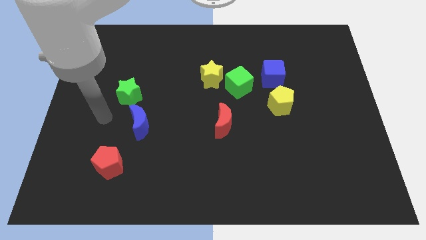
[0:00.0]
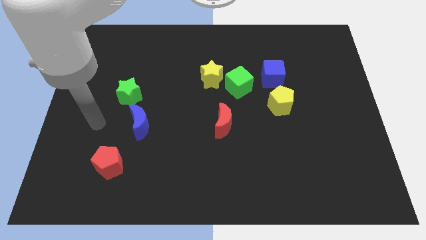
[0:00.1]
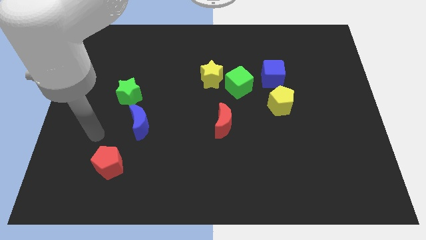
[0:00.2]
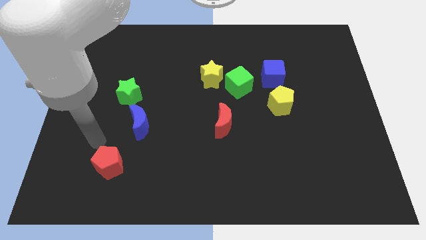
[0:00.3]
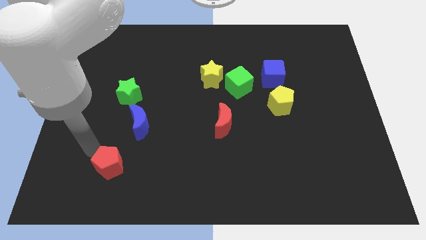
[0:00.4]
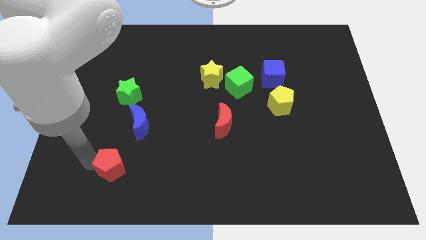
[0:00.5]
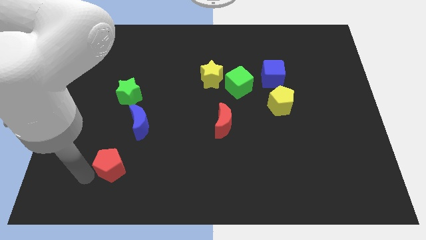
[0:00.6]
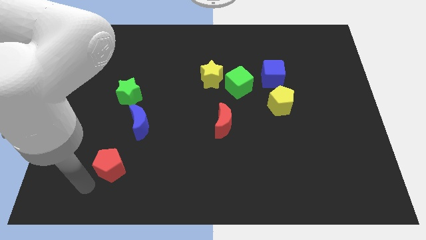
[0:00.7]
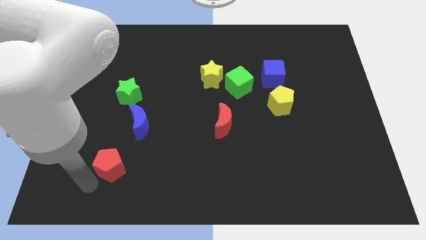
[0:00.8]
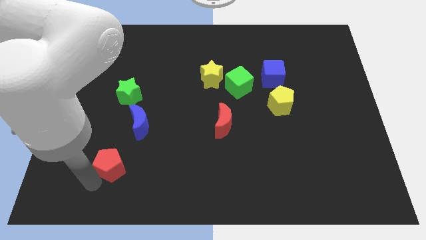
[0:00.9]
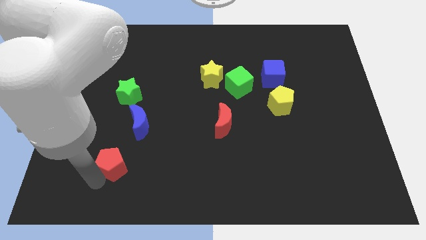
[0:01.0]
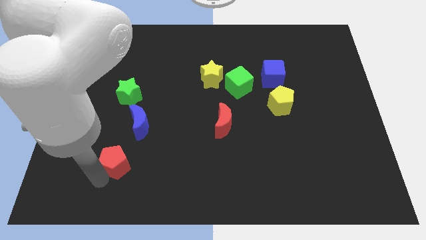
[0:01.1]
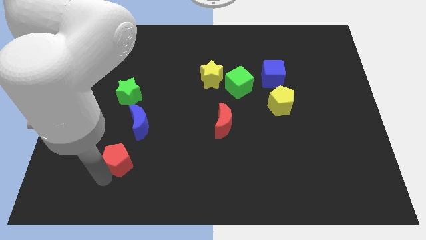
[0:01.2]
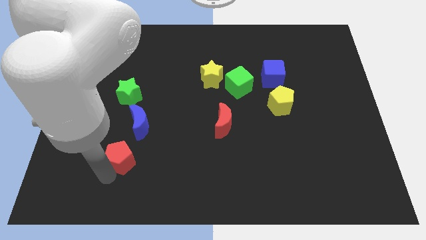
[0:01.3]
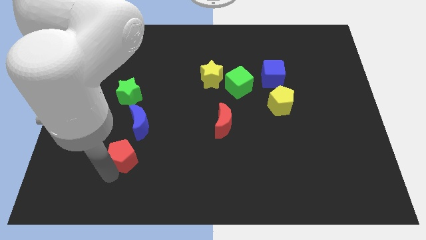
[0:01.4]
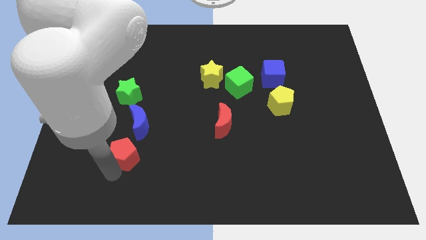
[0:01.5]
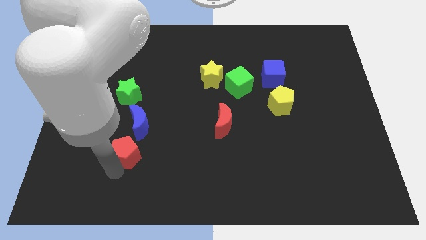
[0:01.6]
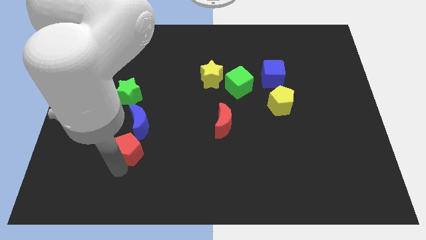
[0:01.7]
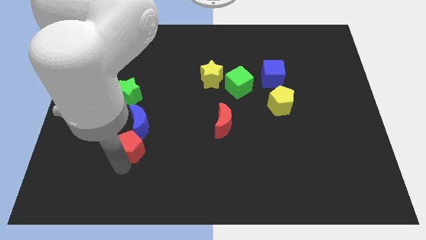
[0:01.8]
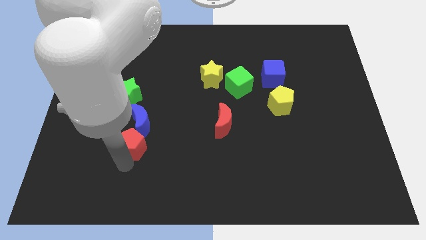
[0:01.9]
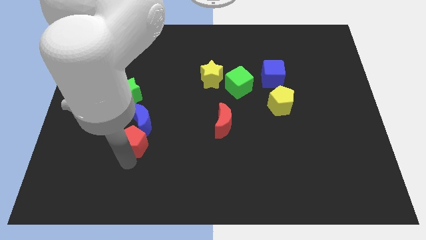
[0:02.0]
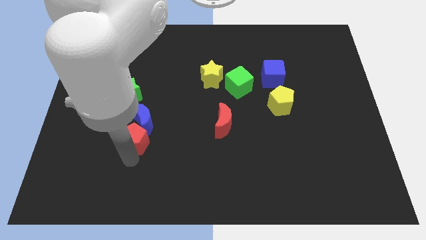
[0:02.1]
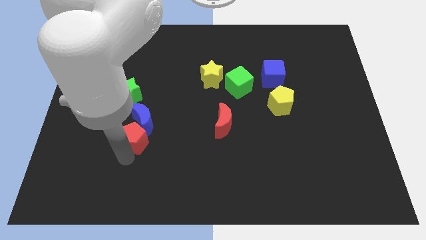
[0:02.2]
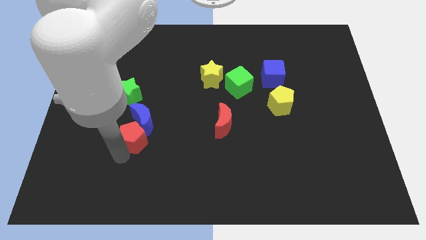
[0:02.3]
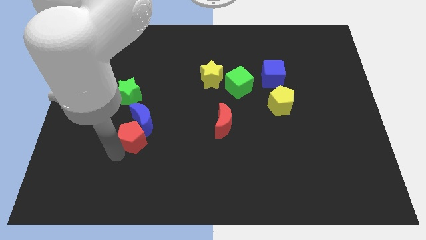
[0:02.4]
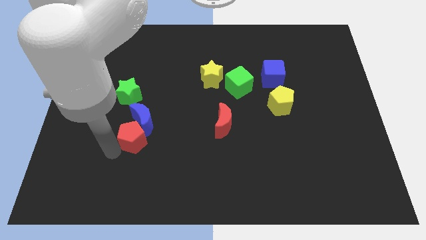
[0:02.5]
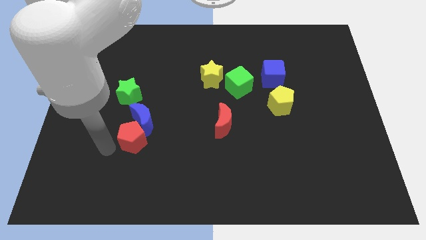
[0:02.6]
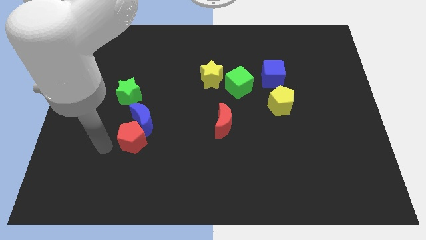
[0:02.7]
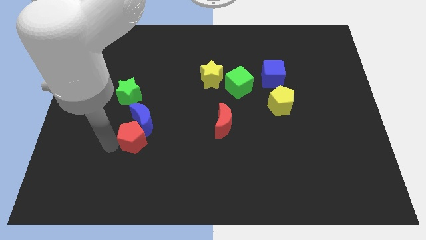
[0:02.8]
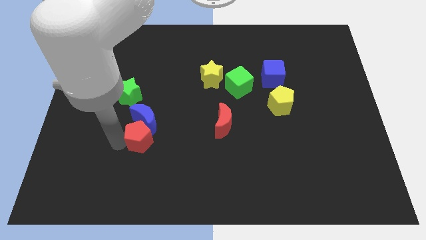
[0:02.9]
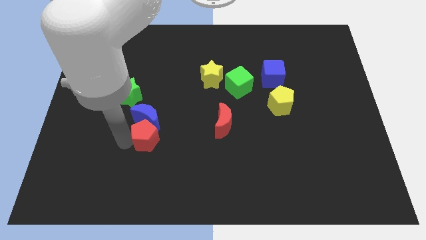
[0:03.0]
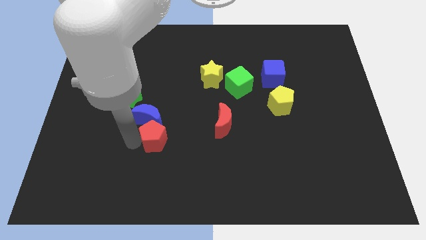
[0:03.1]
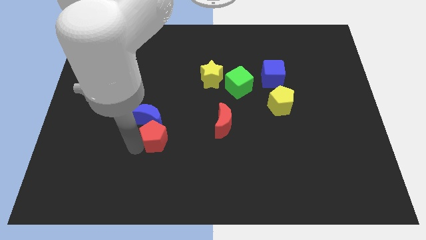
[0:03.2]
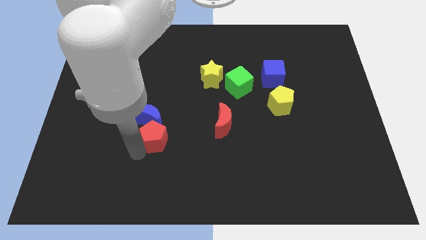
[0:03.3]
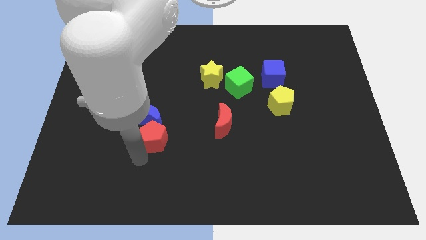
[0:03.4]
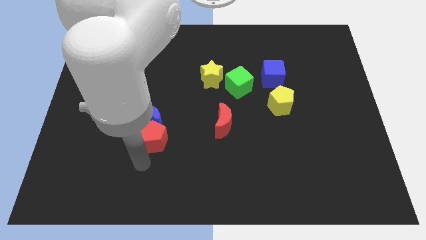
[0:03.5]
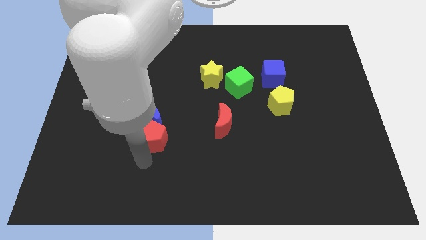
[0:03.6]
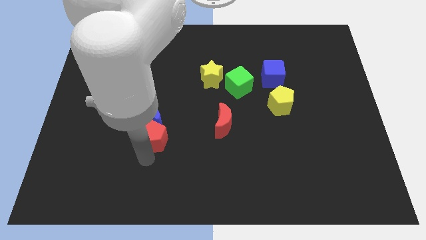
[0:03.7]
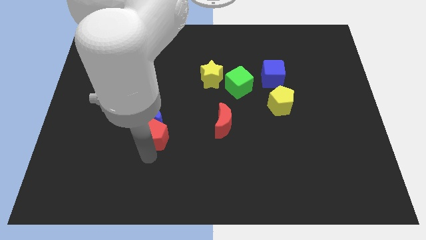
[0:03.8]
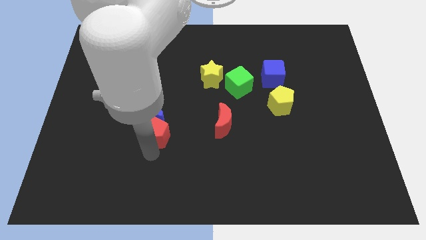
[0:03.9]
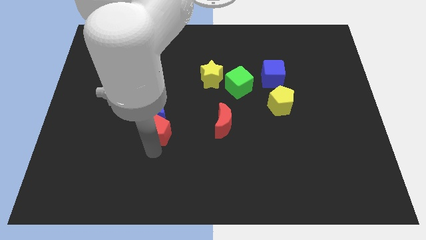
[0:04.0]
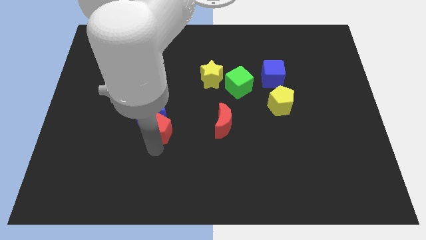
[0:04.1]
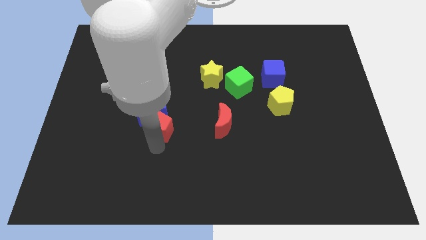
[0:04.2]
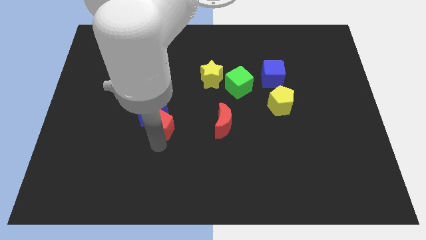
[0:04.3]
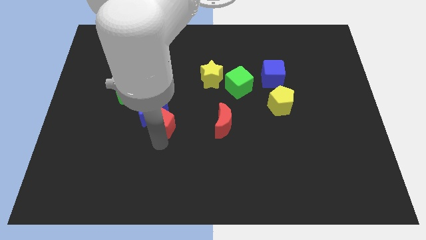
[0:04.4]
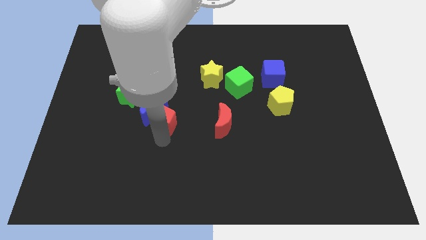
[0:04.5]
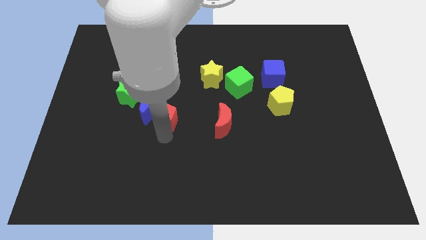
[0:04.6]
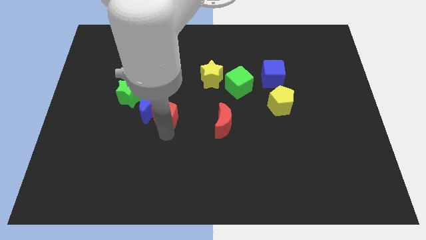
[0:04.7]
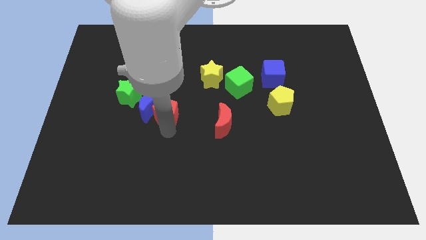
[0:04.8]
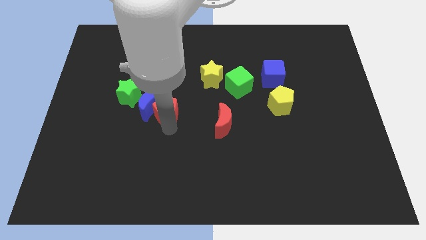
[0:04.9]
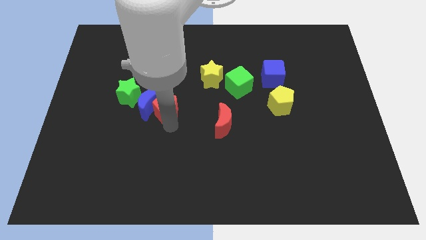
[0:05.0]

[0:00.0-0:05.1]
push the red pentagon right of the green star

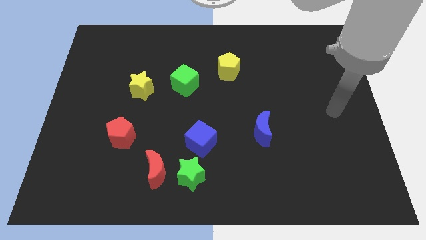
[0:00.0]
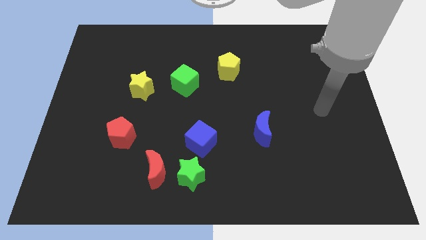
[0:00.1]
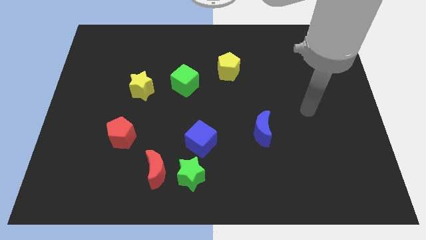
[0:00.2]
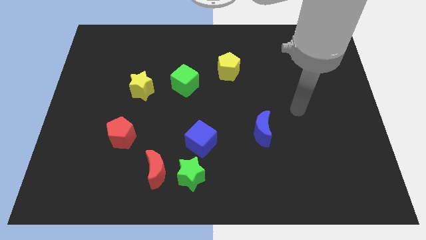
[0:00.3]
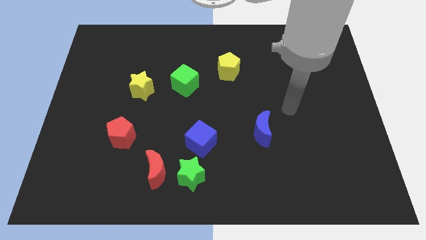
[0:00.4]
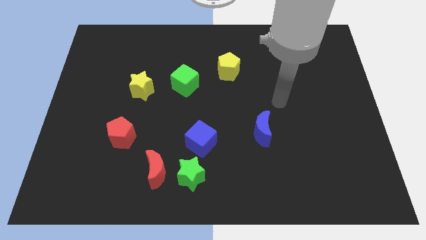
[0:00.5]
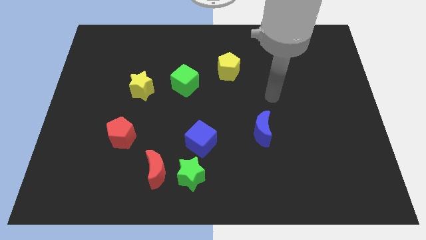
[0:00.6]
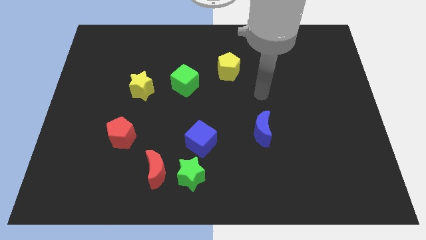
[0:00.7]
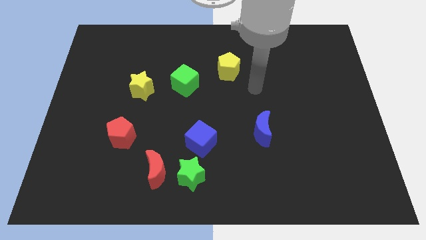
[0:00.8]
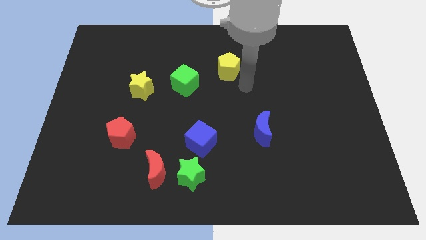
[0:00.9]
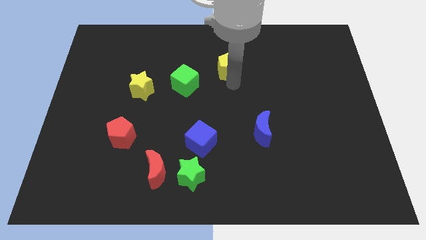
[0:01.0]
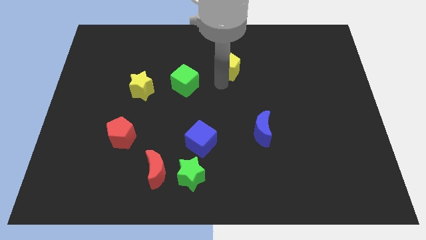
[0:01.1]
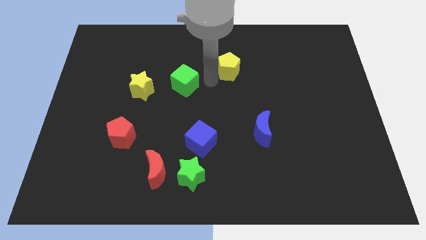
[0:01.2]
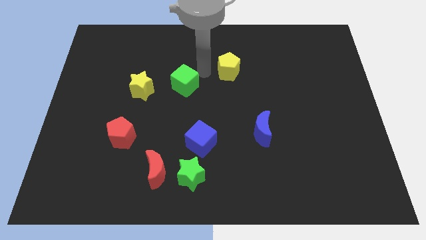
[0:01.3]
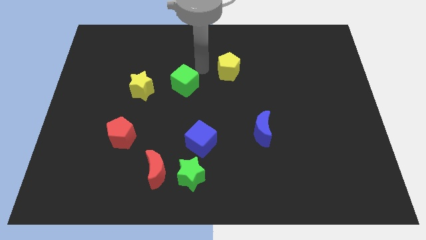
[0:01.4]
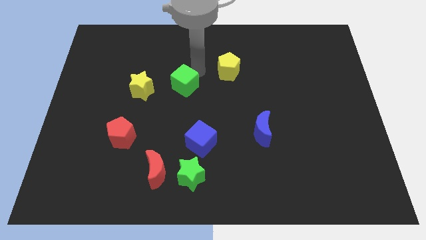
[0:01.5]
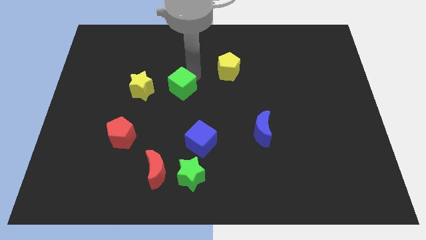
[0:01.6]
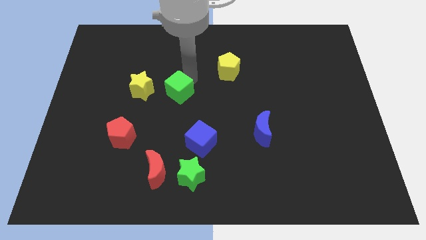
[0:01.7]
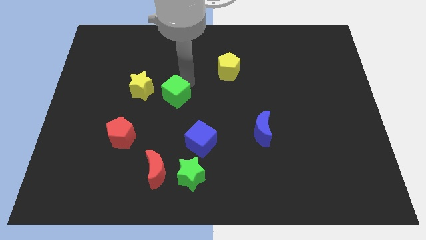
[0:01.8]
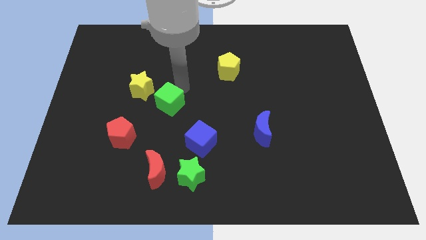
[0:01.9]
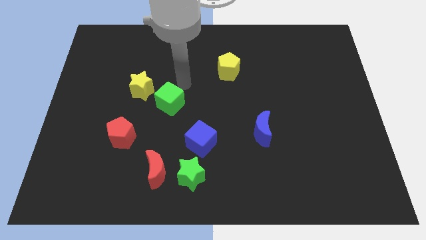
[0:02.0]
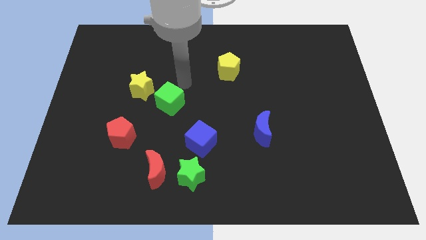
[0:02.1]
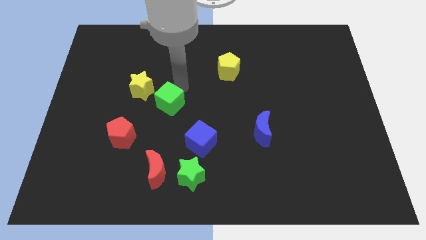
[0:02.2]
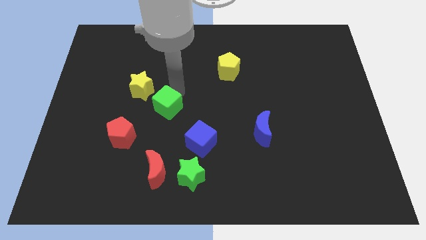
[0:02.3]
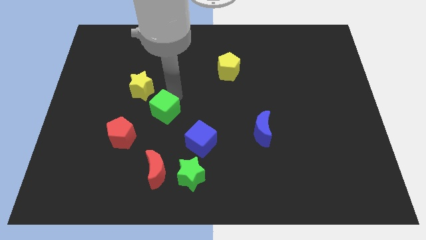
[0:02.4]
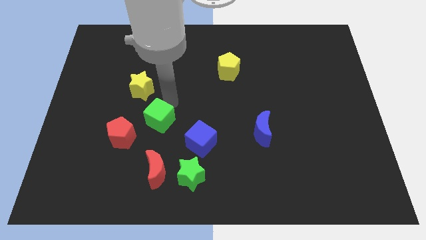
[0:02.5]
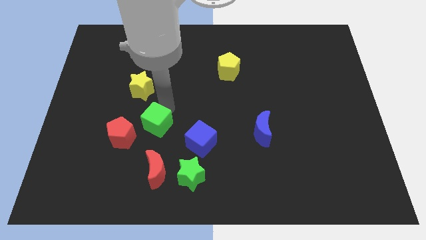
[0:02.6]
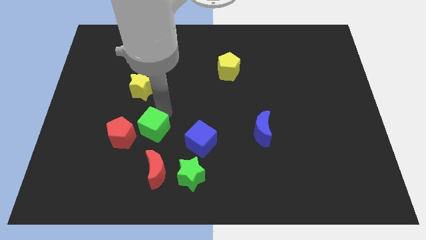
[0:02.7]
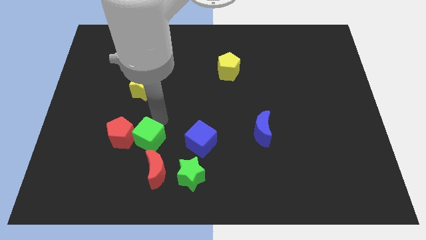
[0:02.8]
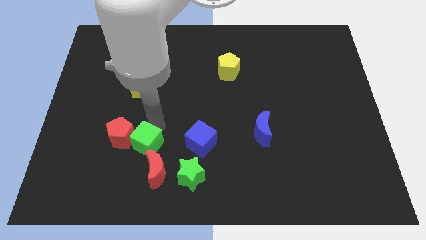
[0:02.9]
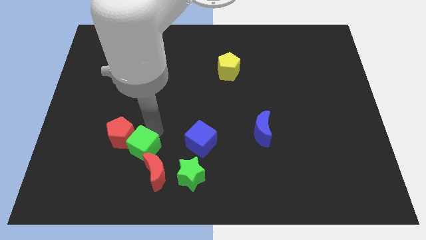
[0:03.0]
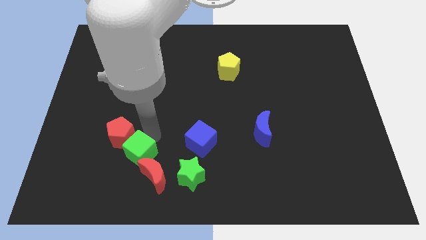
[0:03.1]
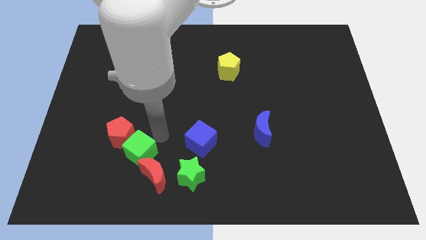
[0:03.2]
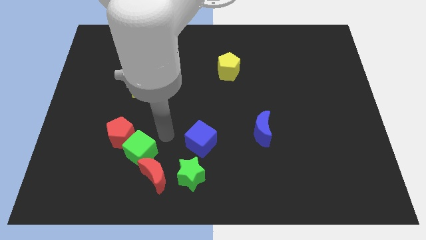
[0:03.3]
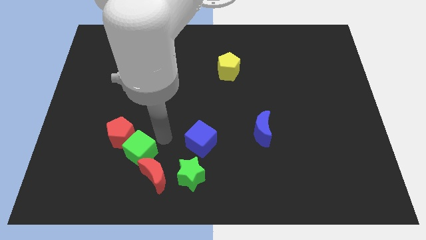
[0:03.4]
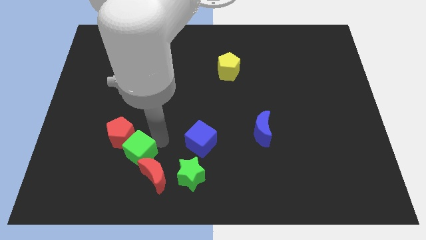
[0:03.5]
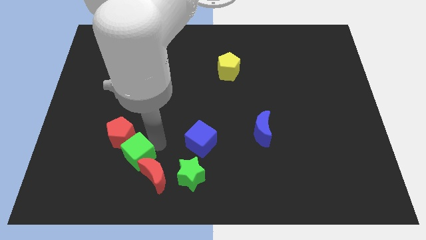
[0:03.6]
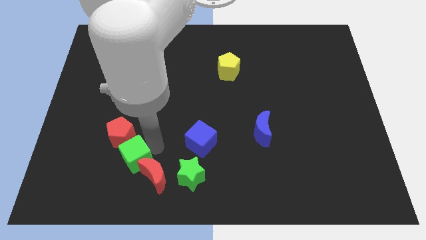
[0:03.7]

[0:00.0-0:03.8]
push the green cube just left of the red moon
